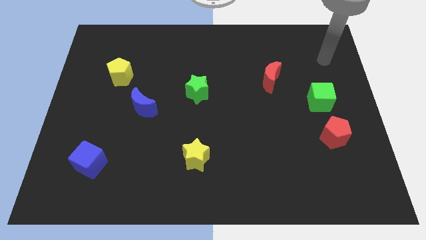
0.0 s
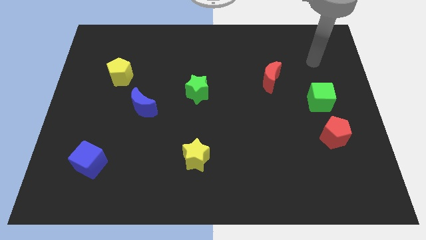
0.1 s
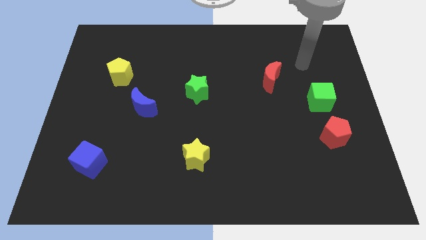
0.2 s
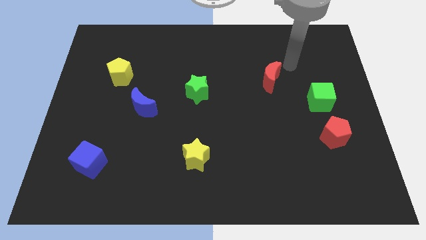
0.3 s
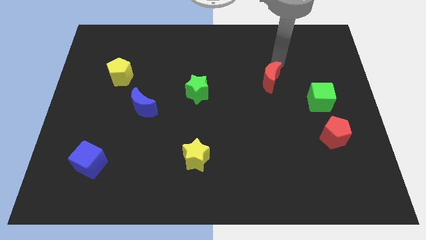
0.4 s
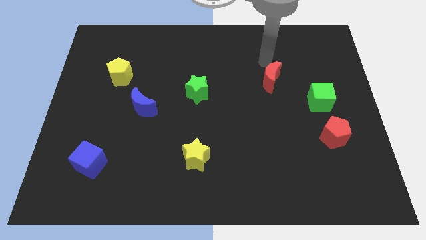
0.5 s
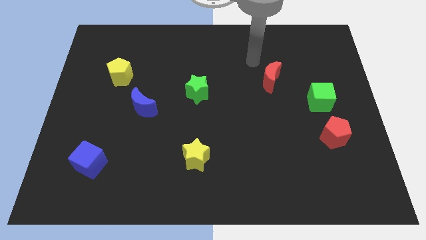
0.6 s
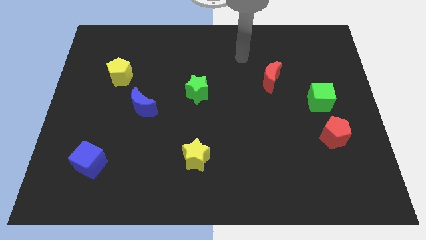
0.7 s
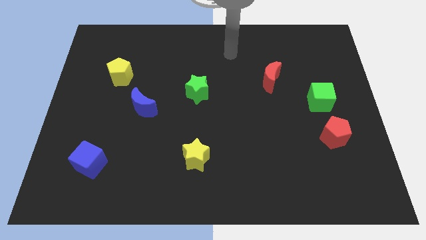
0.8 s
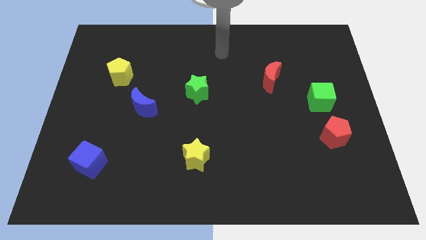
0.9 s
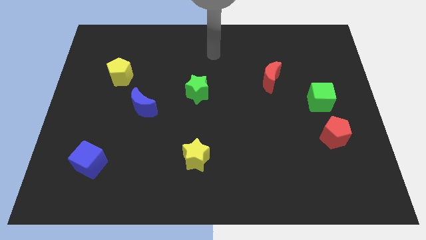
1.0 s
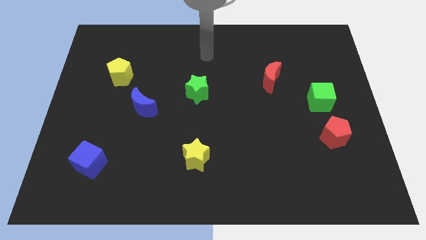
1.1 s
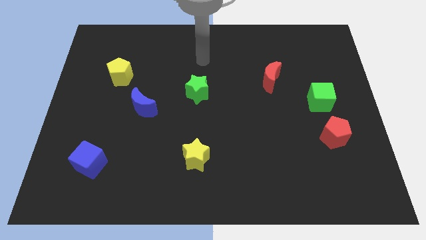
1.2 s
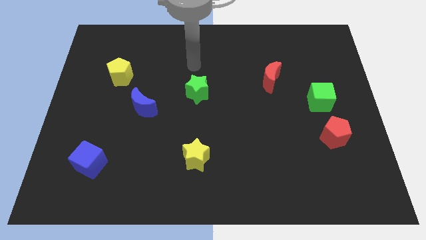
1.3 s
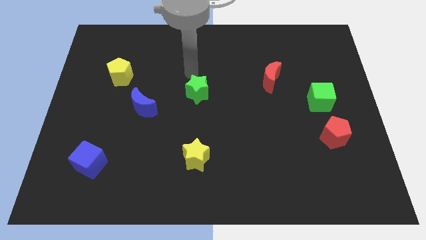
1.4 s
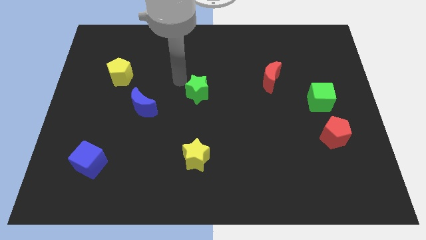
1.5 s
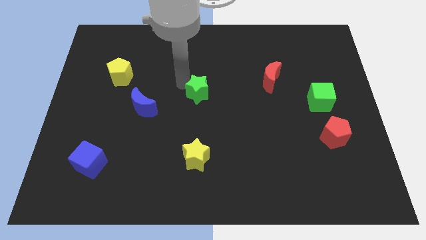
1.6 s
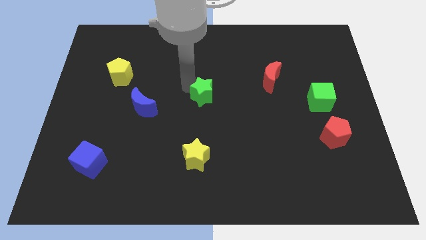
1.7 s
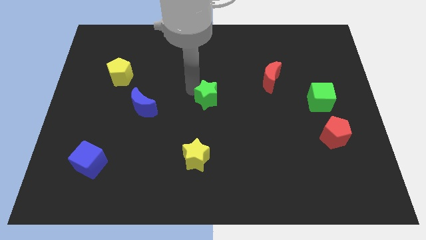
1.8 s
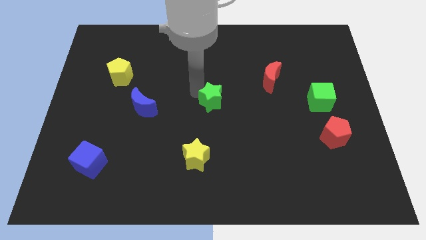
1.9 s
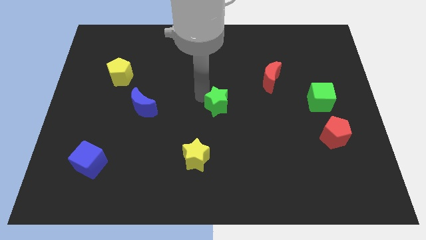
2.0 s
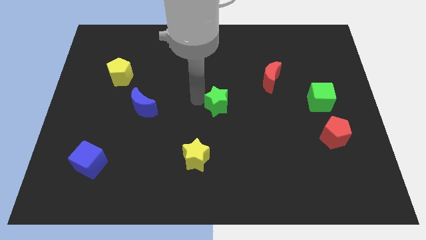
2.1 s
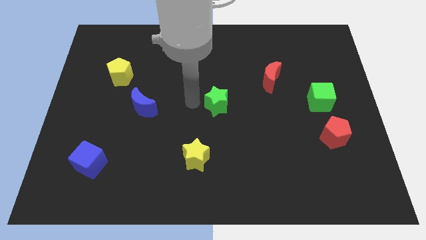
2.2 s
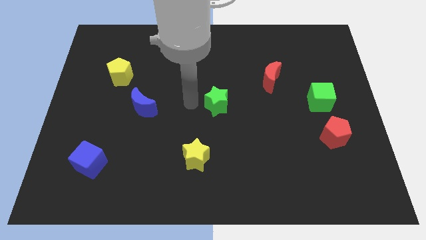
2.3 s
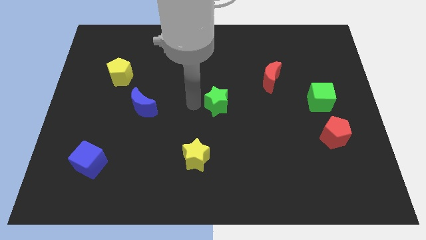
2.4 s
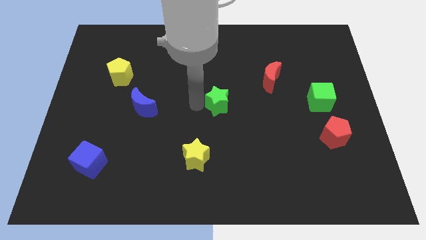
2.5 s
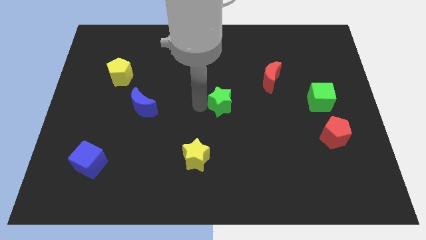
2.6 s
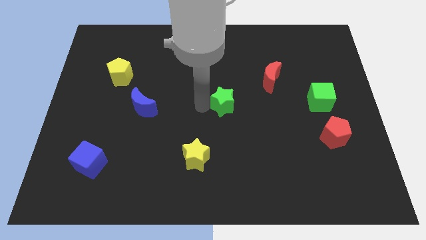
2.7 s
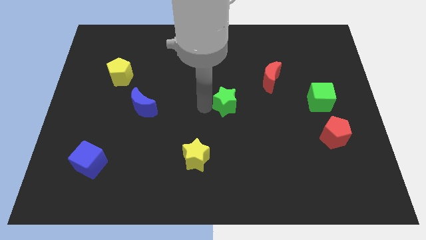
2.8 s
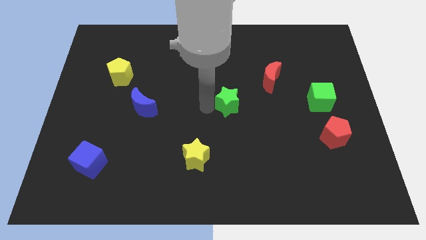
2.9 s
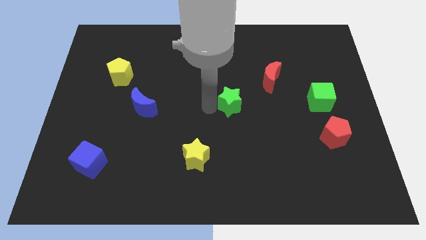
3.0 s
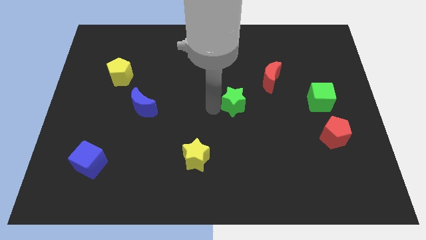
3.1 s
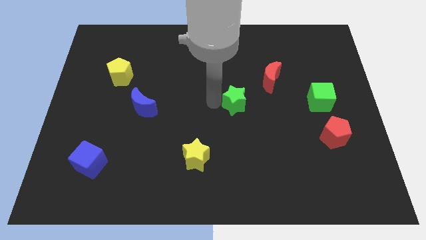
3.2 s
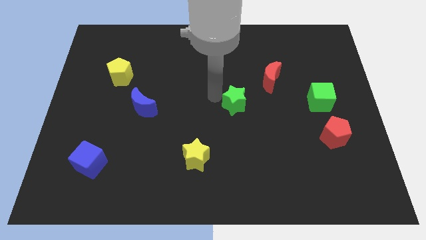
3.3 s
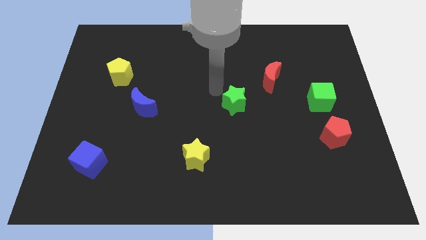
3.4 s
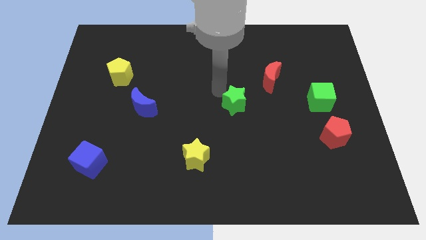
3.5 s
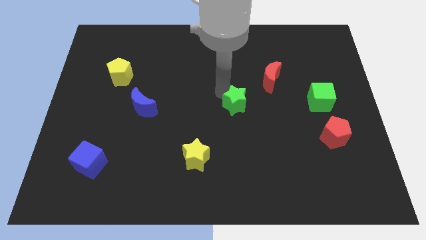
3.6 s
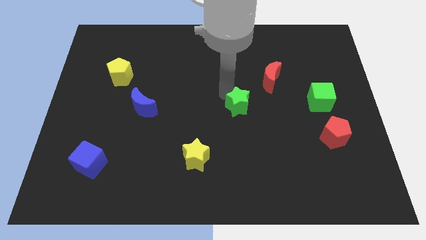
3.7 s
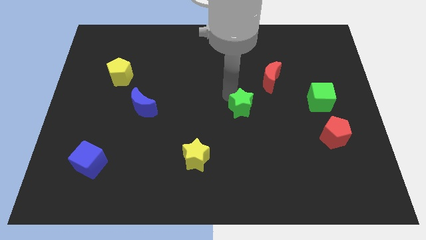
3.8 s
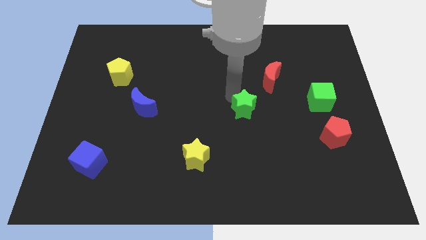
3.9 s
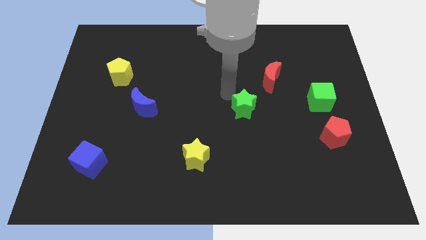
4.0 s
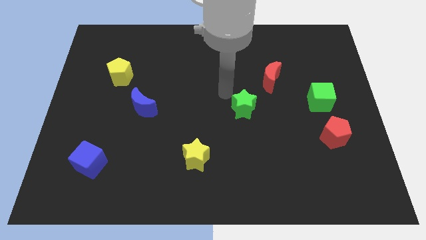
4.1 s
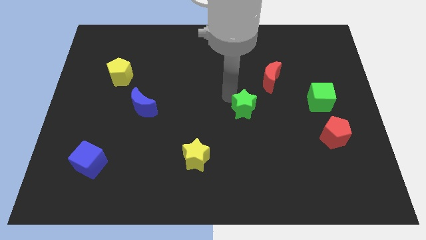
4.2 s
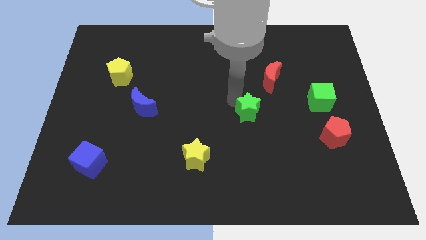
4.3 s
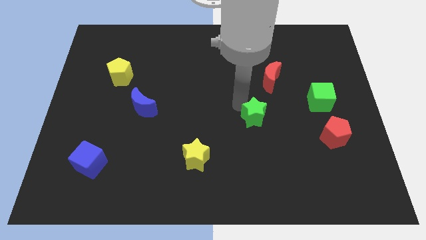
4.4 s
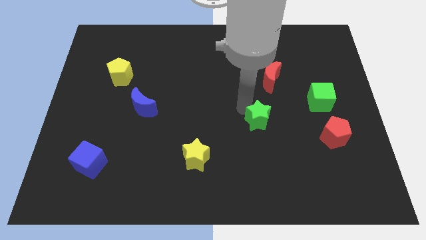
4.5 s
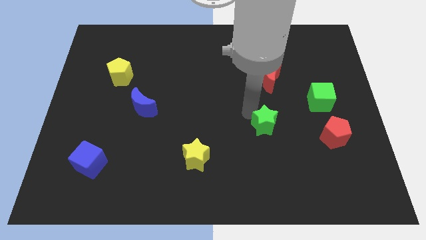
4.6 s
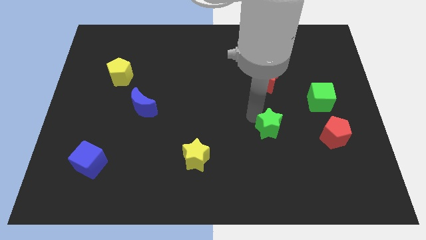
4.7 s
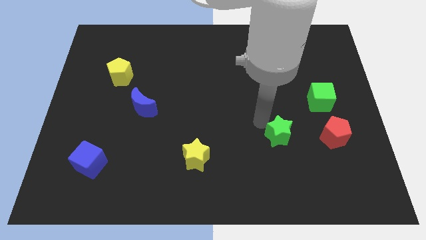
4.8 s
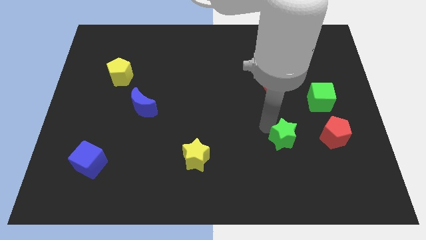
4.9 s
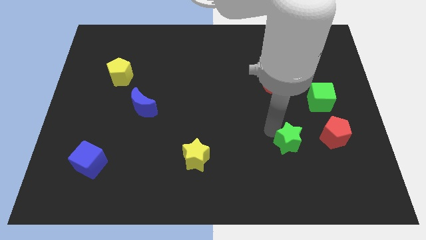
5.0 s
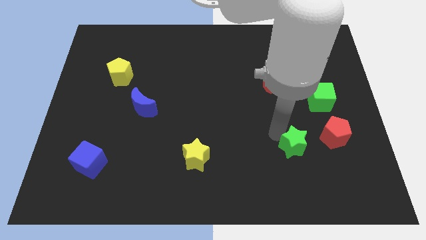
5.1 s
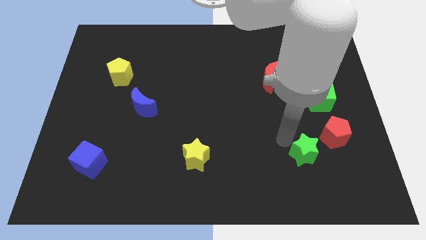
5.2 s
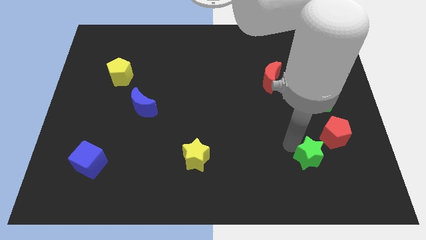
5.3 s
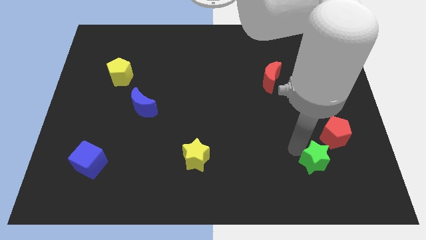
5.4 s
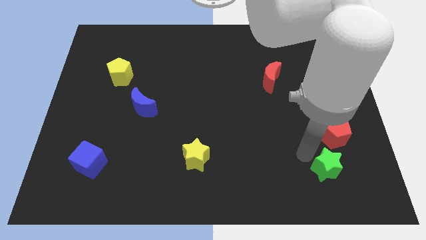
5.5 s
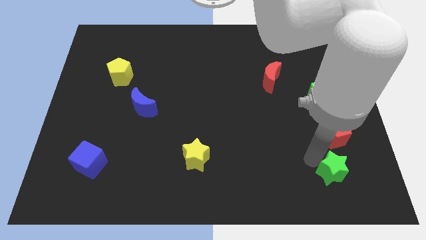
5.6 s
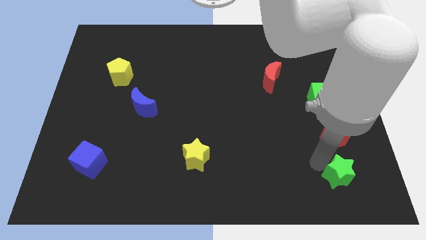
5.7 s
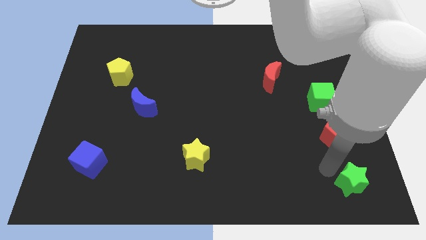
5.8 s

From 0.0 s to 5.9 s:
put the green star to the lower right corner
